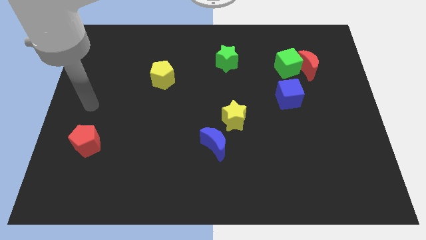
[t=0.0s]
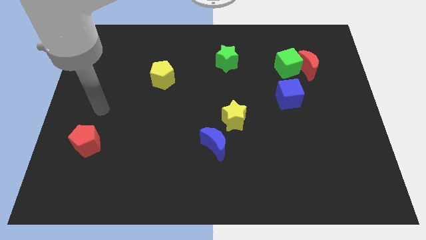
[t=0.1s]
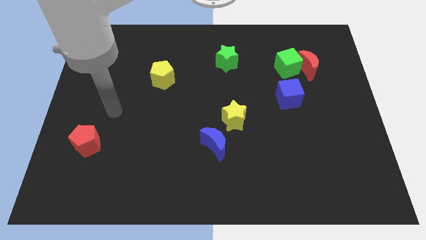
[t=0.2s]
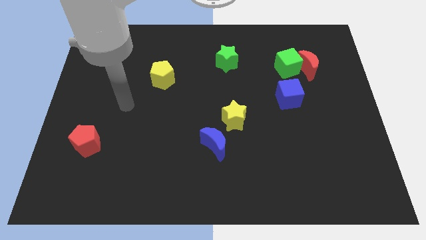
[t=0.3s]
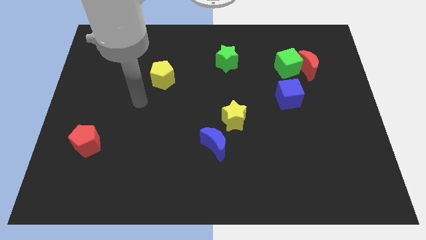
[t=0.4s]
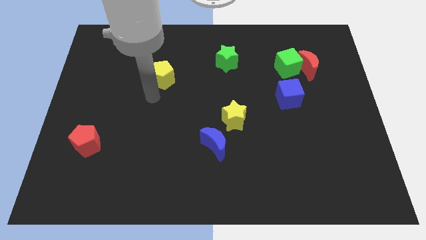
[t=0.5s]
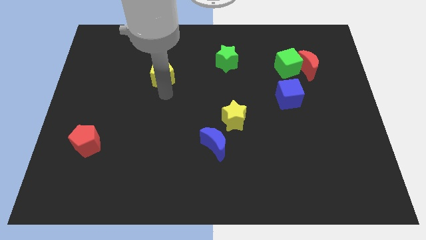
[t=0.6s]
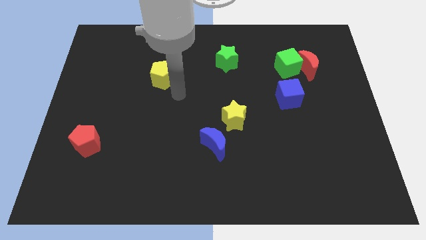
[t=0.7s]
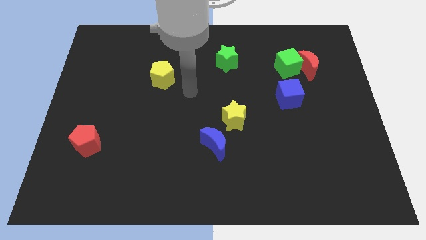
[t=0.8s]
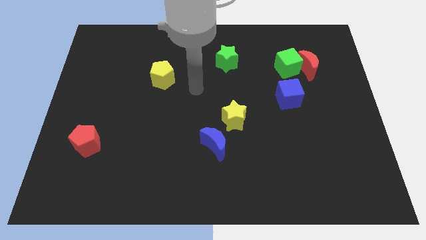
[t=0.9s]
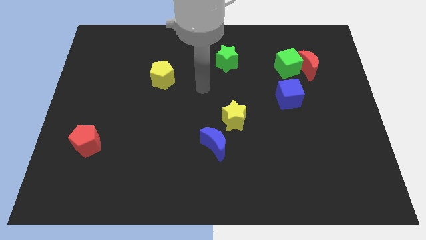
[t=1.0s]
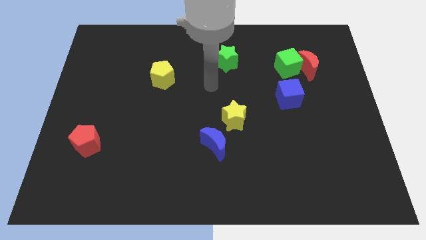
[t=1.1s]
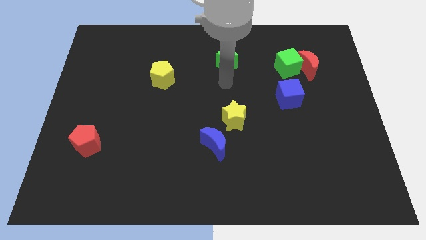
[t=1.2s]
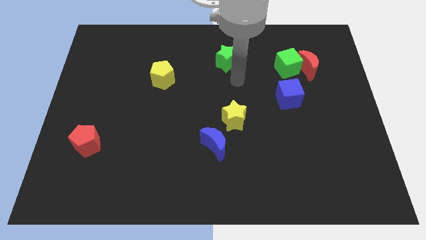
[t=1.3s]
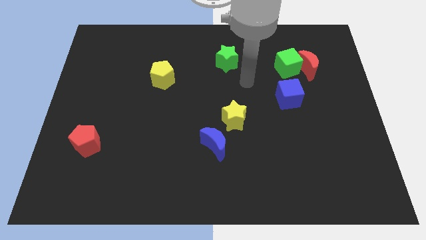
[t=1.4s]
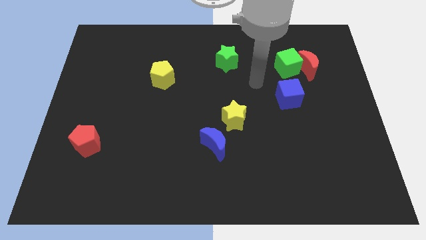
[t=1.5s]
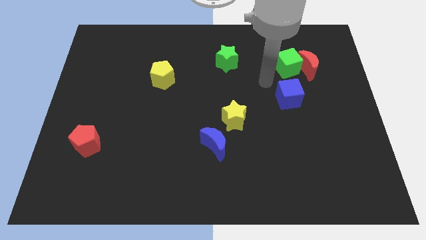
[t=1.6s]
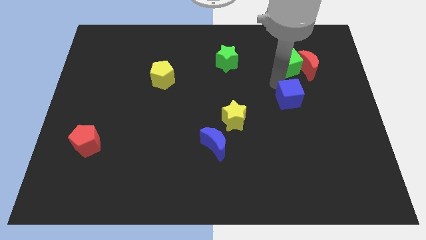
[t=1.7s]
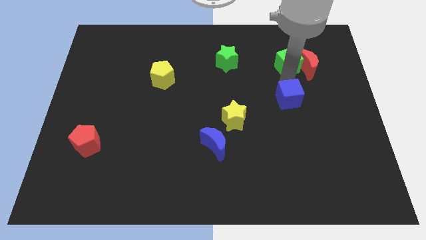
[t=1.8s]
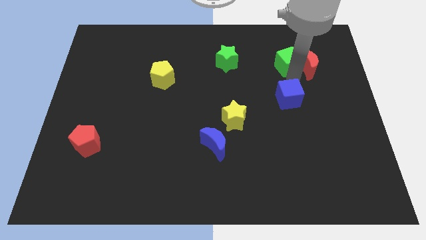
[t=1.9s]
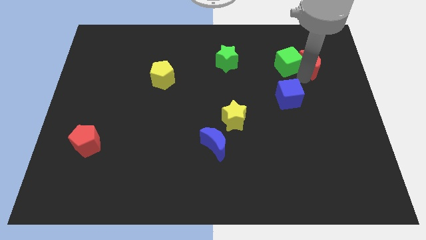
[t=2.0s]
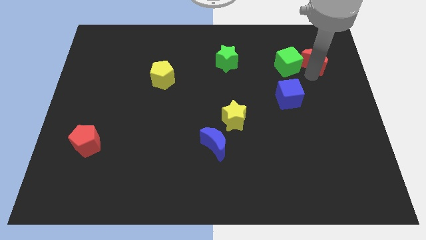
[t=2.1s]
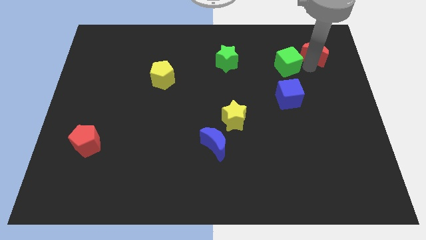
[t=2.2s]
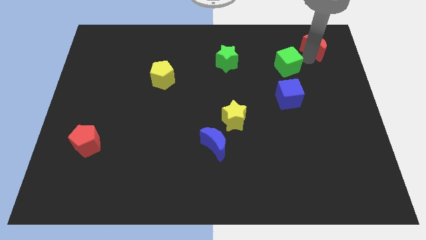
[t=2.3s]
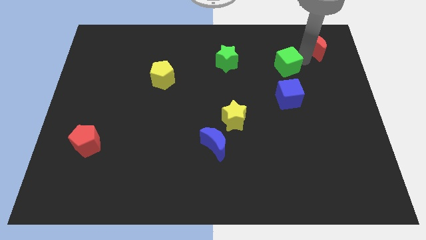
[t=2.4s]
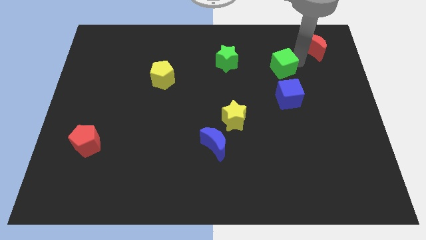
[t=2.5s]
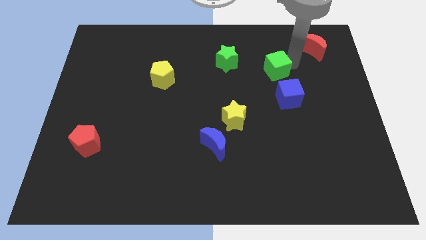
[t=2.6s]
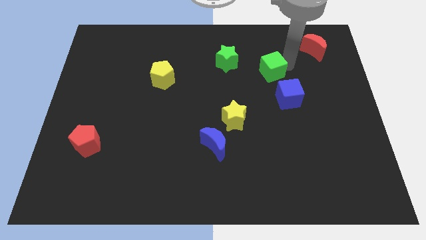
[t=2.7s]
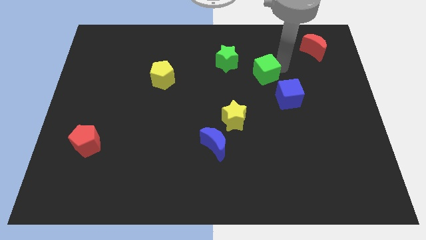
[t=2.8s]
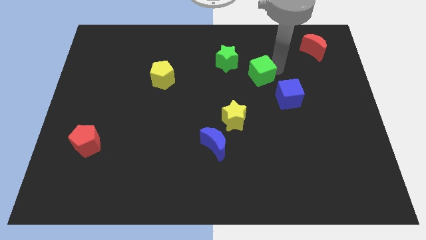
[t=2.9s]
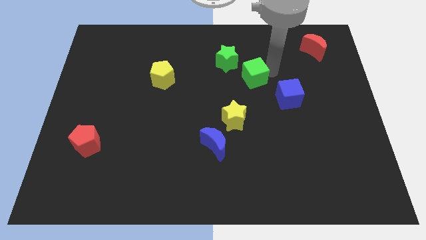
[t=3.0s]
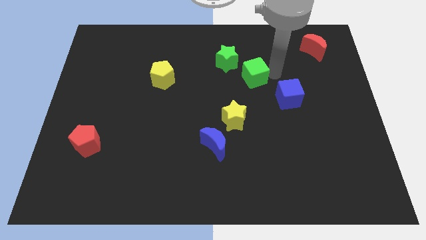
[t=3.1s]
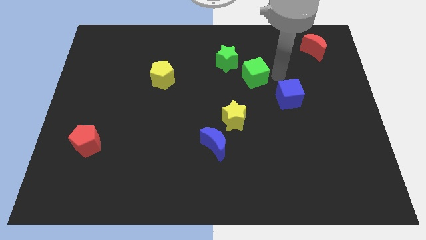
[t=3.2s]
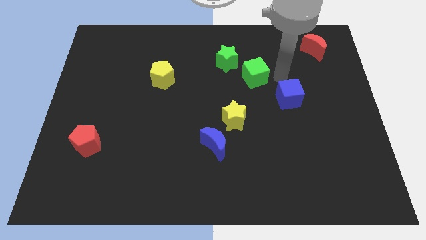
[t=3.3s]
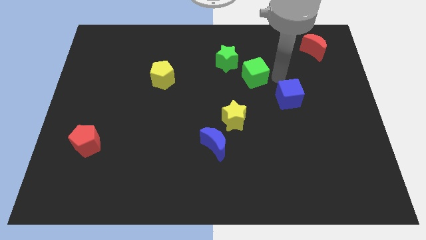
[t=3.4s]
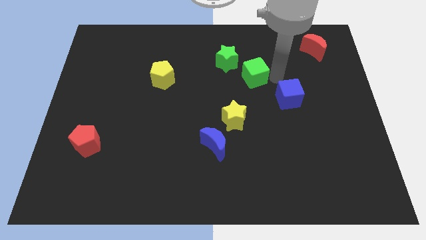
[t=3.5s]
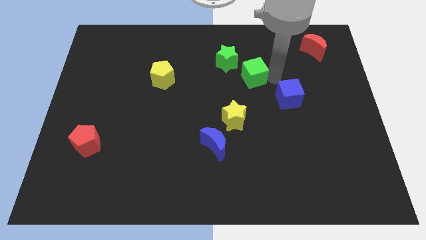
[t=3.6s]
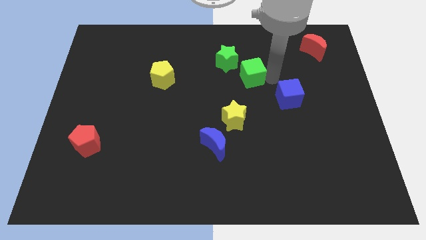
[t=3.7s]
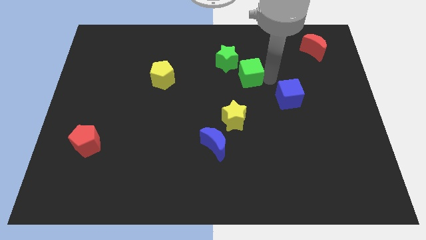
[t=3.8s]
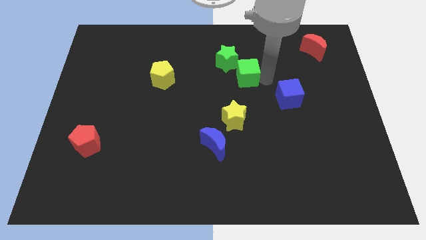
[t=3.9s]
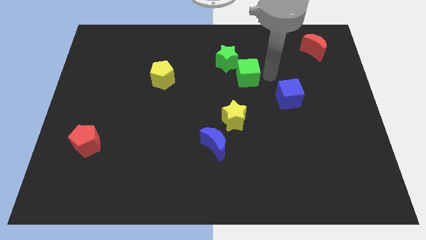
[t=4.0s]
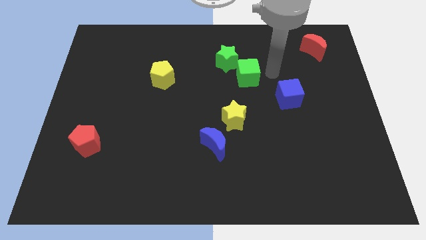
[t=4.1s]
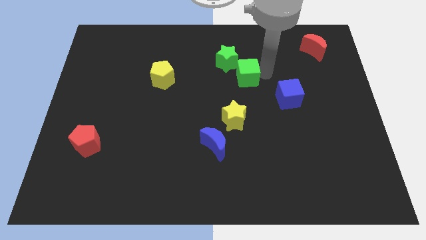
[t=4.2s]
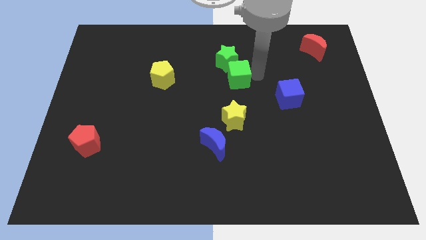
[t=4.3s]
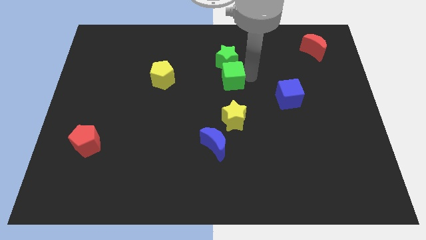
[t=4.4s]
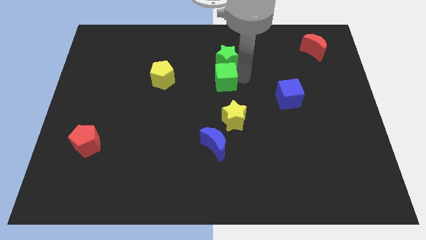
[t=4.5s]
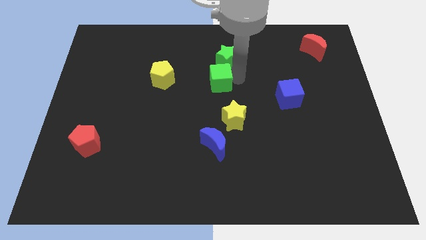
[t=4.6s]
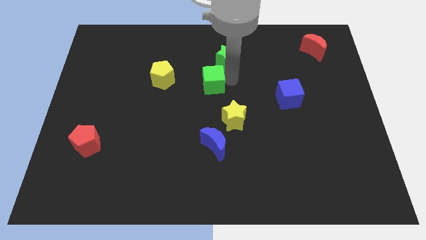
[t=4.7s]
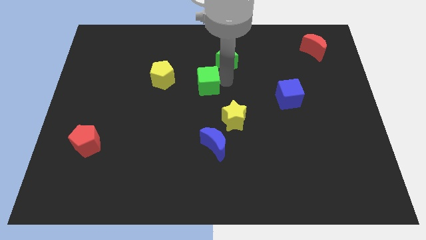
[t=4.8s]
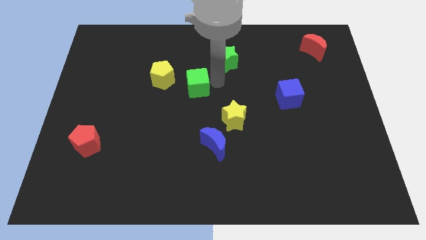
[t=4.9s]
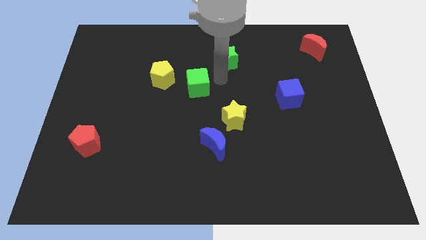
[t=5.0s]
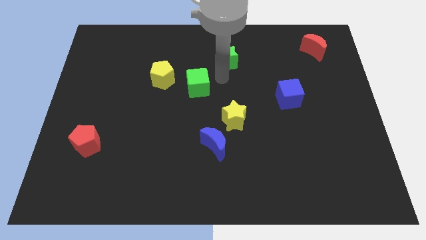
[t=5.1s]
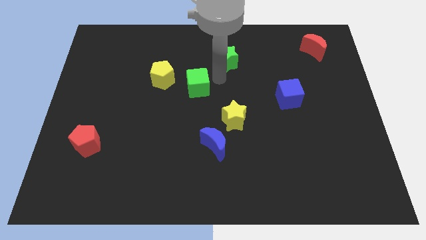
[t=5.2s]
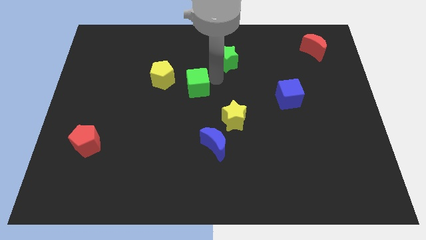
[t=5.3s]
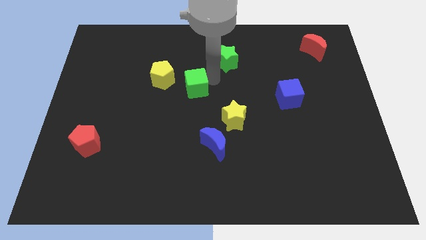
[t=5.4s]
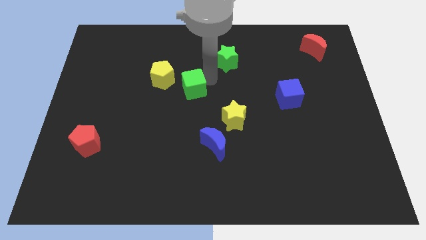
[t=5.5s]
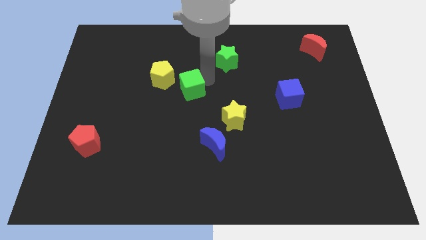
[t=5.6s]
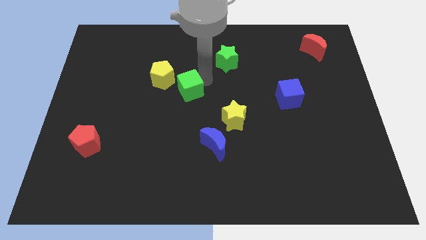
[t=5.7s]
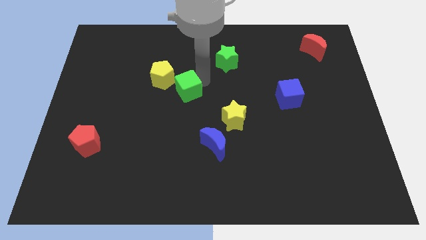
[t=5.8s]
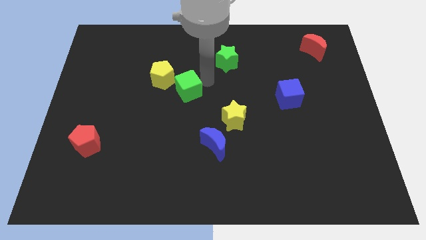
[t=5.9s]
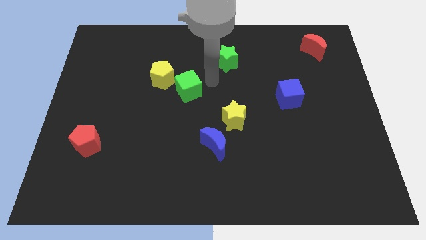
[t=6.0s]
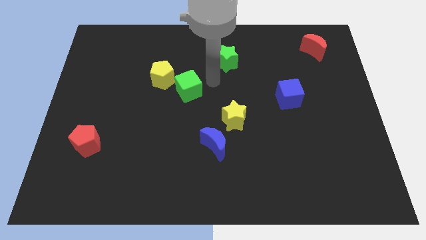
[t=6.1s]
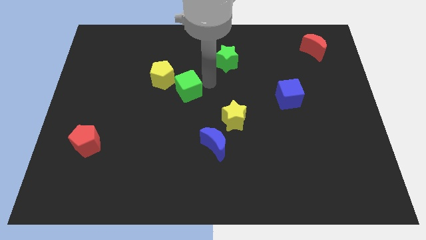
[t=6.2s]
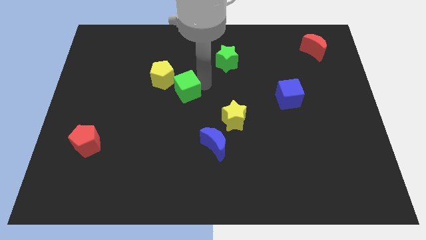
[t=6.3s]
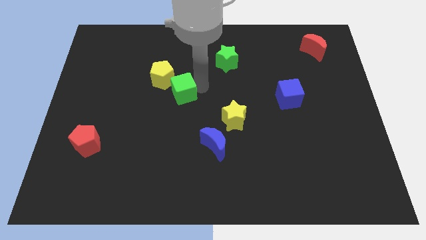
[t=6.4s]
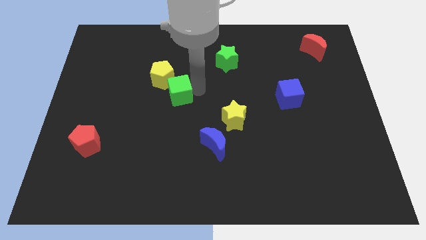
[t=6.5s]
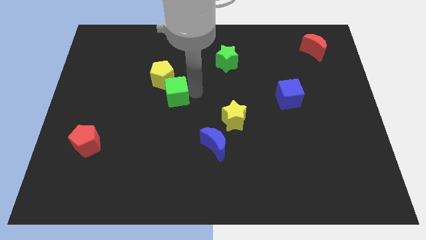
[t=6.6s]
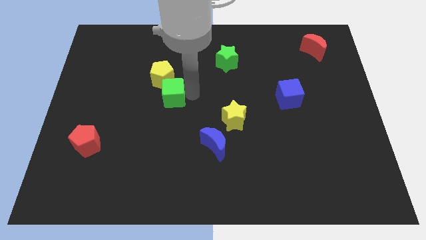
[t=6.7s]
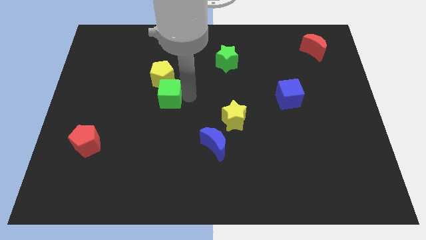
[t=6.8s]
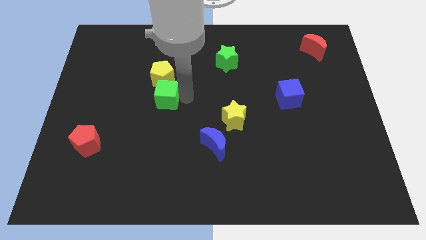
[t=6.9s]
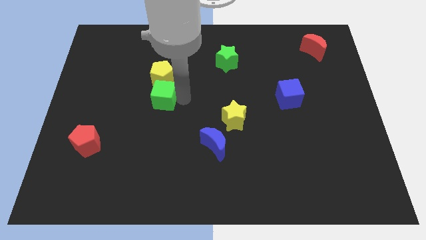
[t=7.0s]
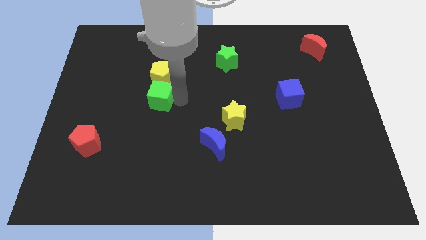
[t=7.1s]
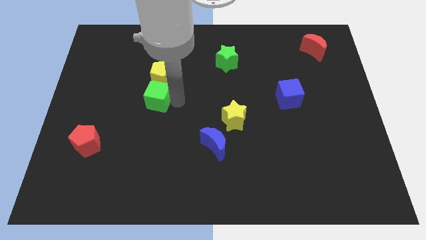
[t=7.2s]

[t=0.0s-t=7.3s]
move the green cube to the bottom left of the yellow pentagon

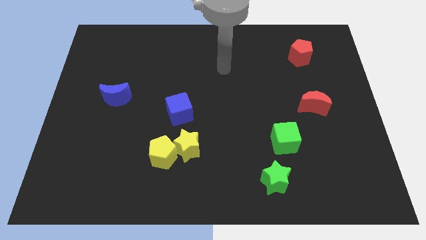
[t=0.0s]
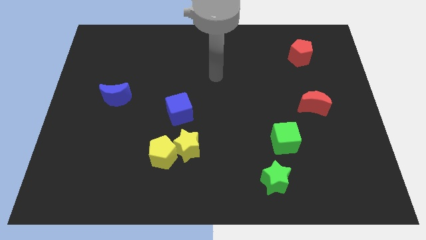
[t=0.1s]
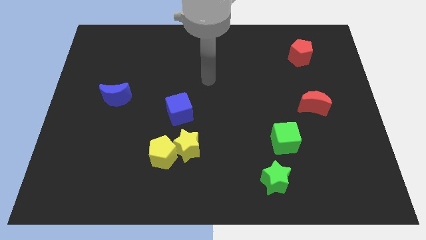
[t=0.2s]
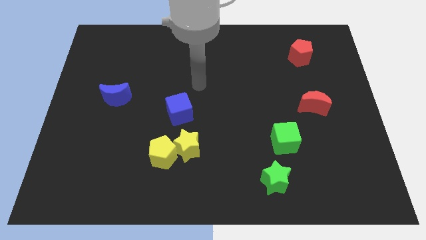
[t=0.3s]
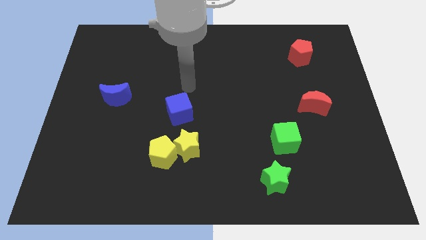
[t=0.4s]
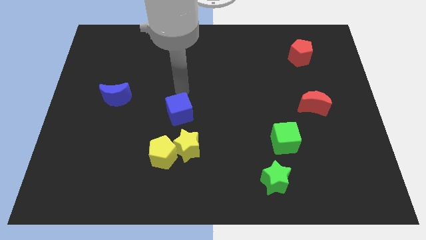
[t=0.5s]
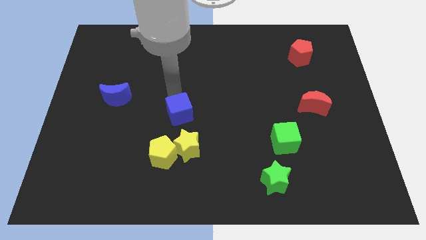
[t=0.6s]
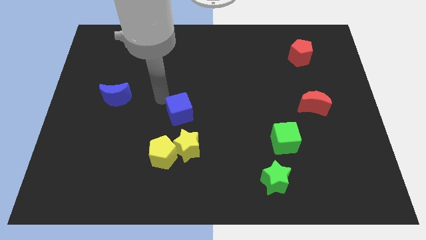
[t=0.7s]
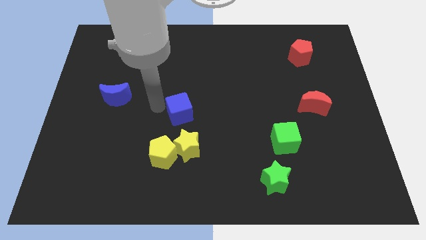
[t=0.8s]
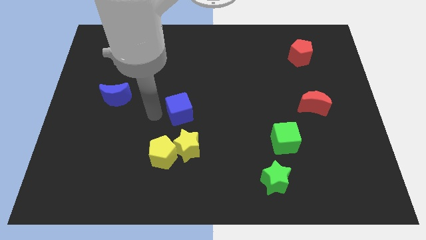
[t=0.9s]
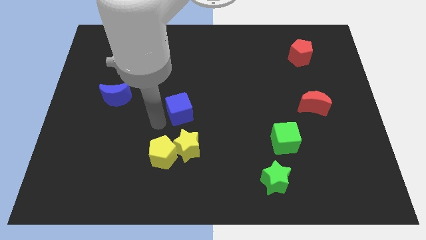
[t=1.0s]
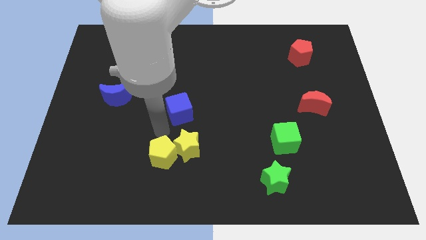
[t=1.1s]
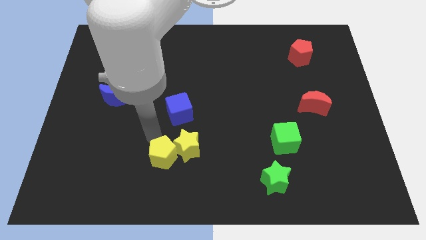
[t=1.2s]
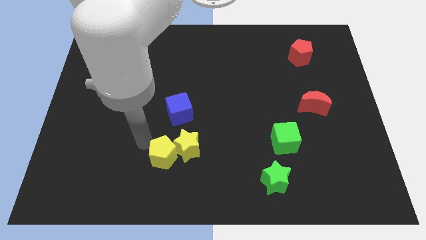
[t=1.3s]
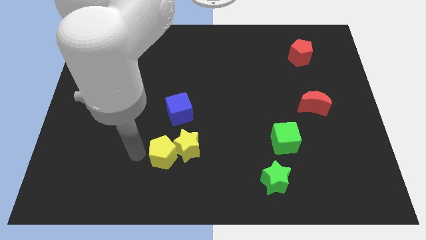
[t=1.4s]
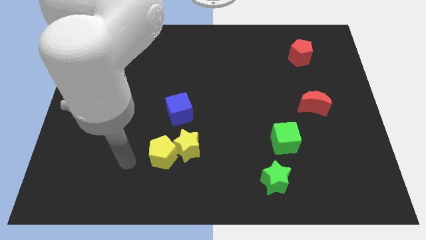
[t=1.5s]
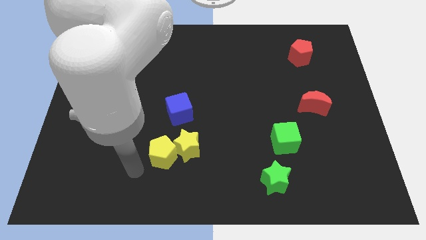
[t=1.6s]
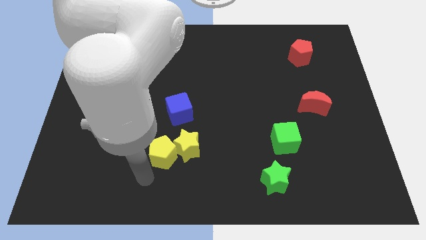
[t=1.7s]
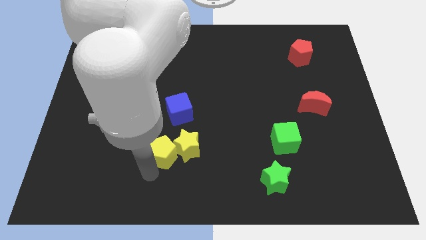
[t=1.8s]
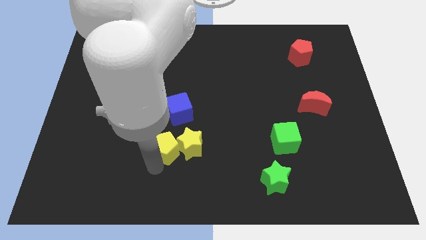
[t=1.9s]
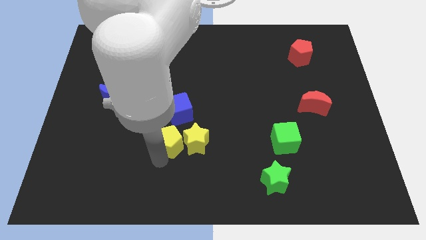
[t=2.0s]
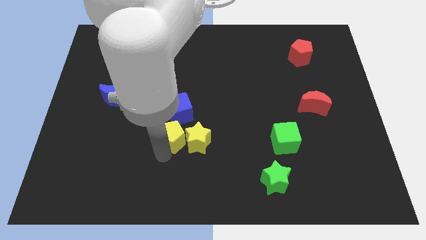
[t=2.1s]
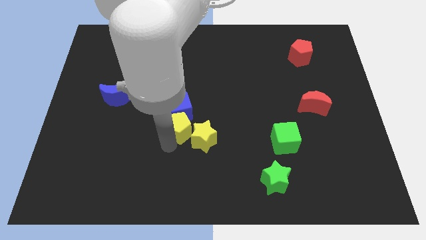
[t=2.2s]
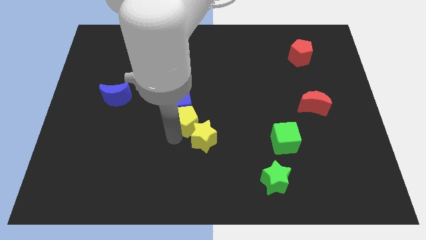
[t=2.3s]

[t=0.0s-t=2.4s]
put the yellow pentagon to the top of the yellow star
